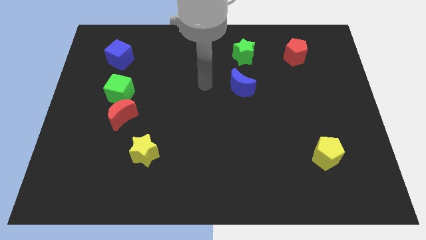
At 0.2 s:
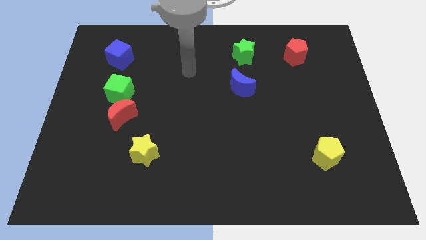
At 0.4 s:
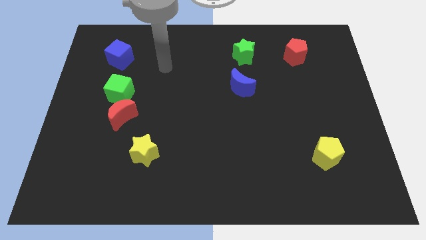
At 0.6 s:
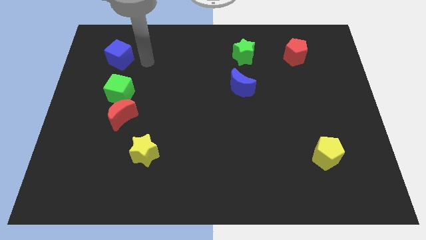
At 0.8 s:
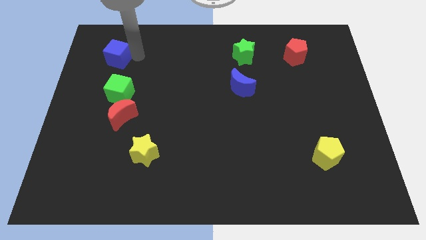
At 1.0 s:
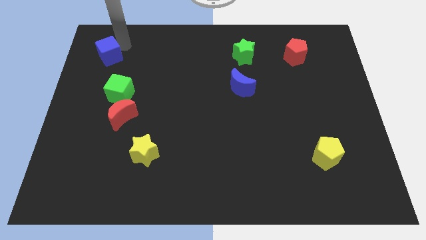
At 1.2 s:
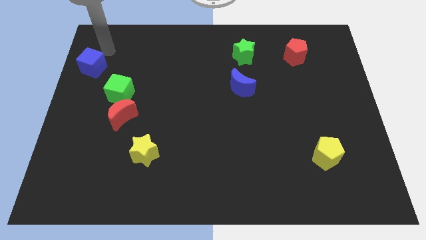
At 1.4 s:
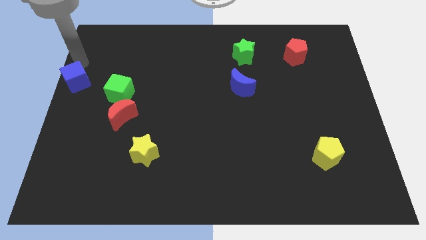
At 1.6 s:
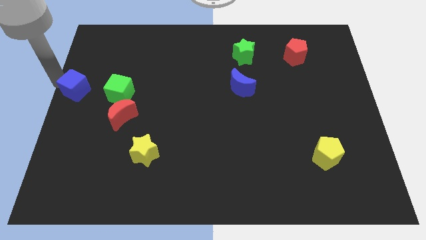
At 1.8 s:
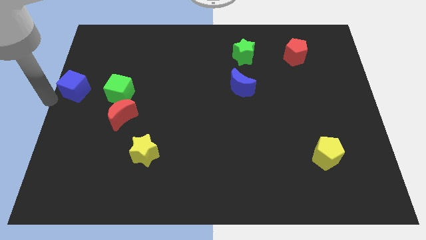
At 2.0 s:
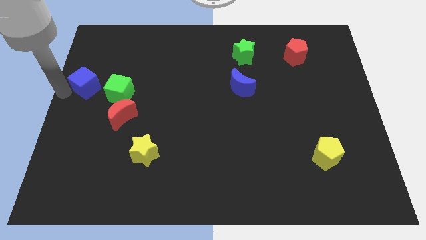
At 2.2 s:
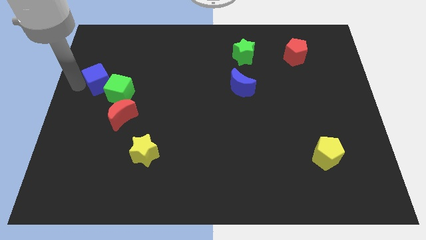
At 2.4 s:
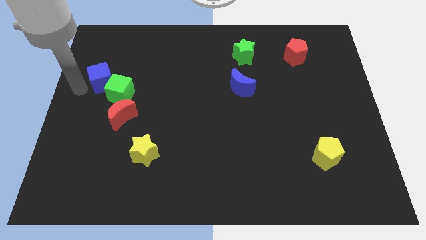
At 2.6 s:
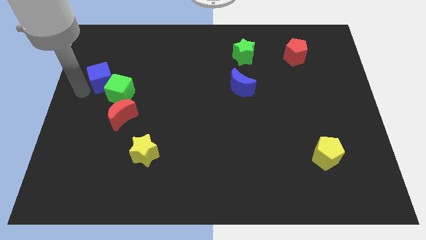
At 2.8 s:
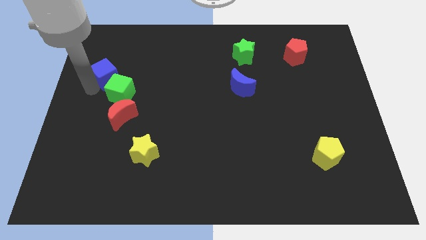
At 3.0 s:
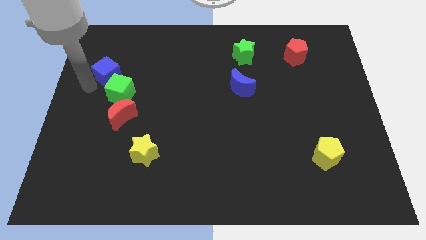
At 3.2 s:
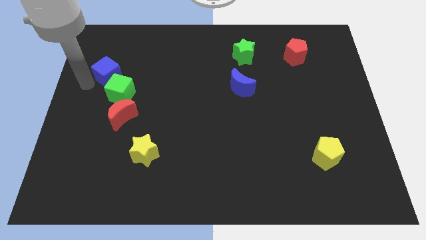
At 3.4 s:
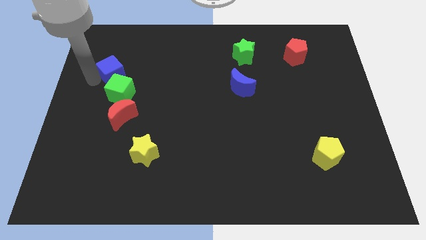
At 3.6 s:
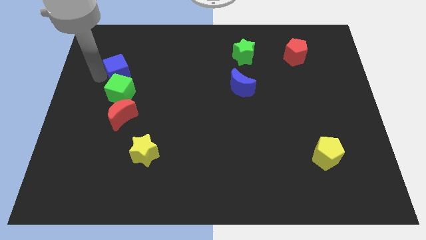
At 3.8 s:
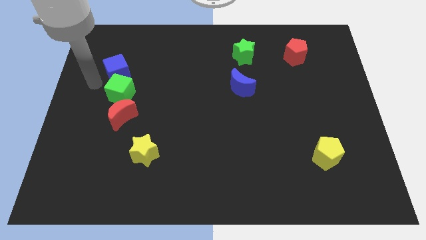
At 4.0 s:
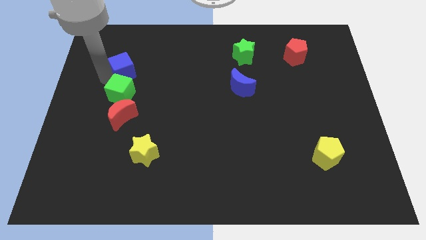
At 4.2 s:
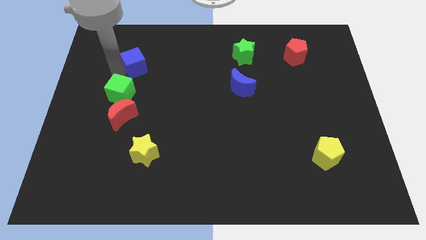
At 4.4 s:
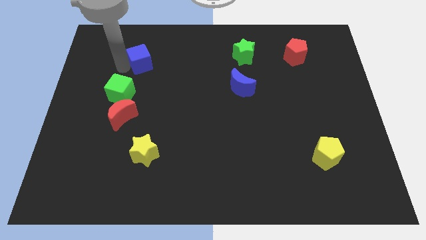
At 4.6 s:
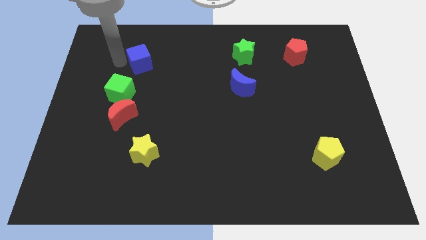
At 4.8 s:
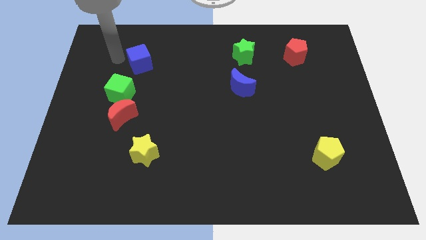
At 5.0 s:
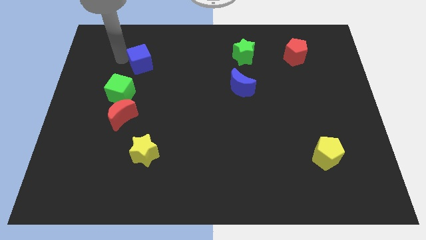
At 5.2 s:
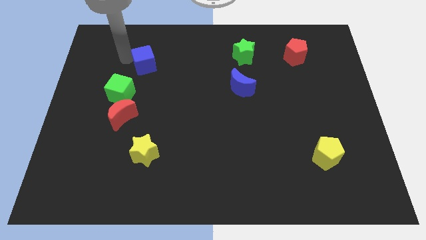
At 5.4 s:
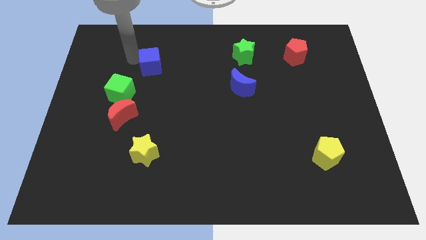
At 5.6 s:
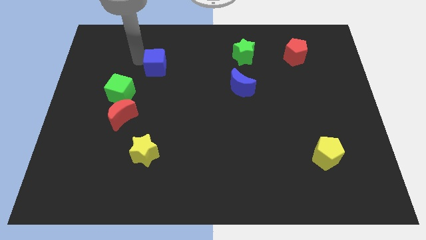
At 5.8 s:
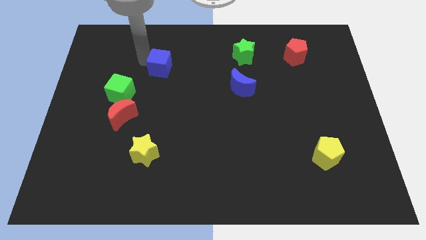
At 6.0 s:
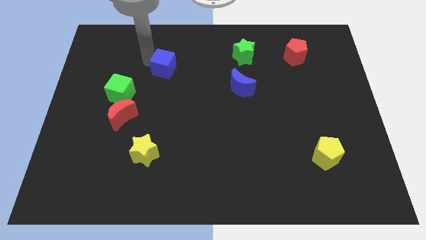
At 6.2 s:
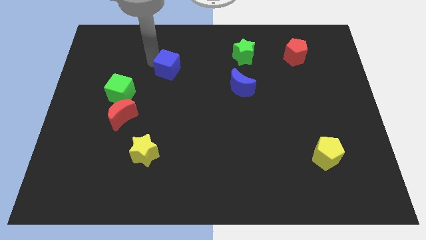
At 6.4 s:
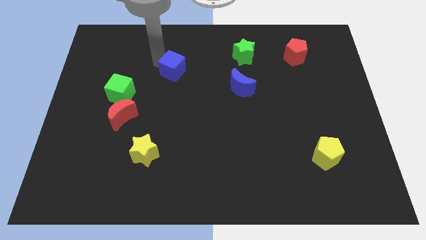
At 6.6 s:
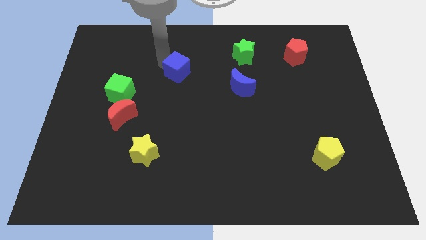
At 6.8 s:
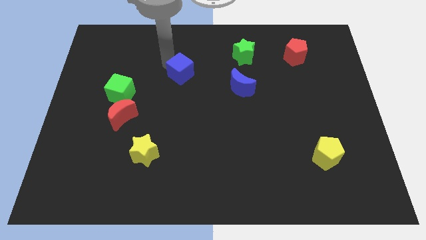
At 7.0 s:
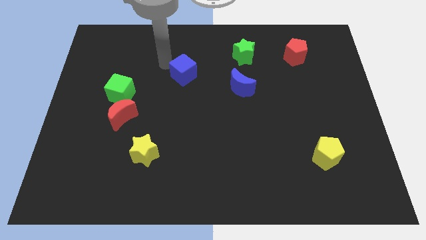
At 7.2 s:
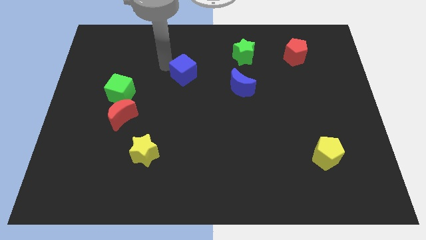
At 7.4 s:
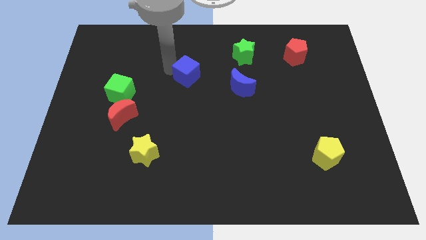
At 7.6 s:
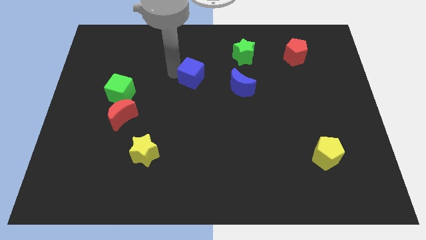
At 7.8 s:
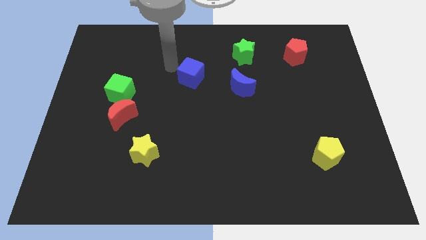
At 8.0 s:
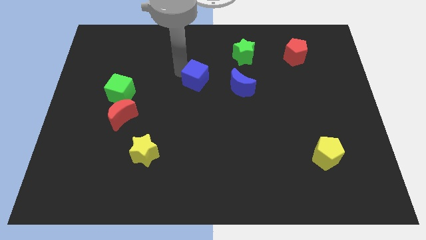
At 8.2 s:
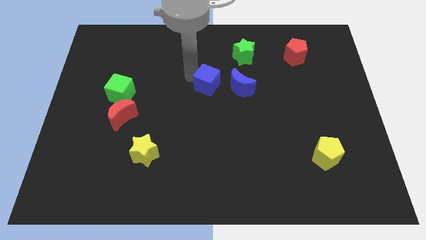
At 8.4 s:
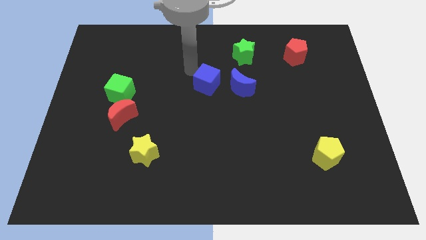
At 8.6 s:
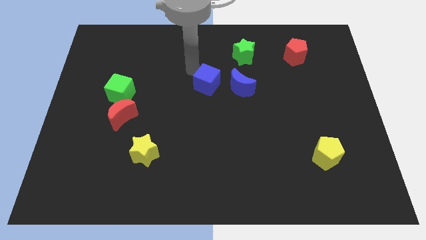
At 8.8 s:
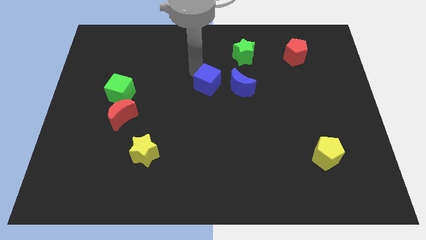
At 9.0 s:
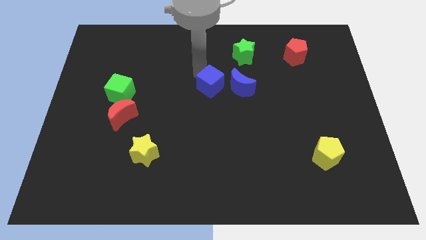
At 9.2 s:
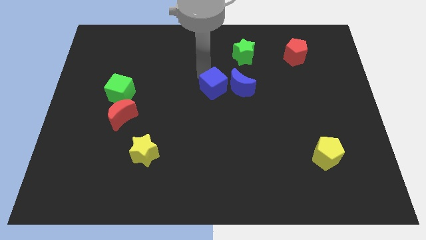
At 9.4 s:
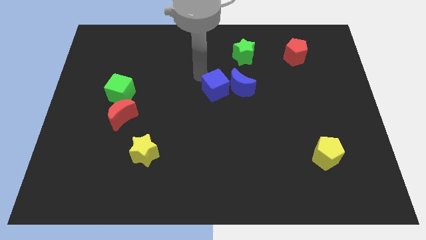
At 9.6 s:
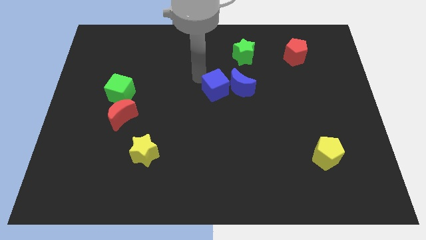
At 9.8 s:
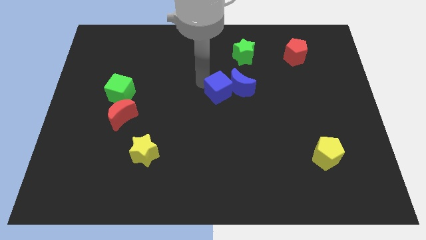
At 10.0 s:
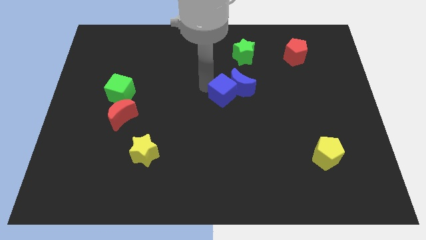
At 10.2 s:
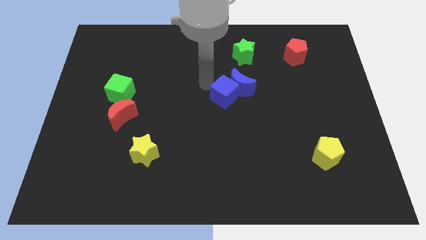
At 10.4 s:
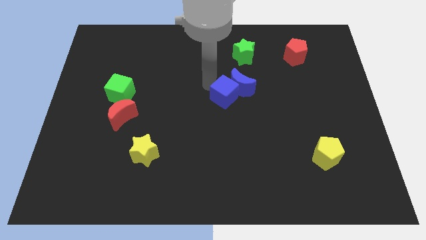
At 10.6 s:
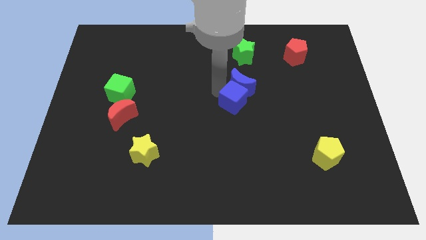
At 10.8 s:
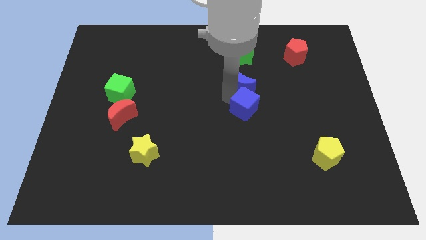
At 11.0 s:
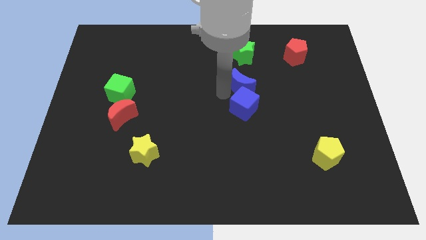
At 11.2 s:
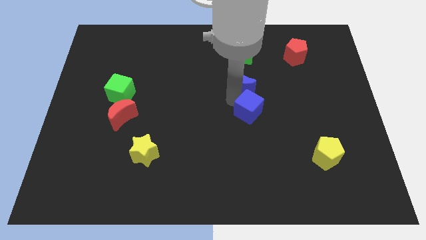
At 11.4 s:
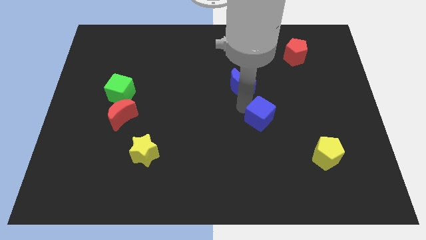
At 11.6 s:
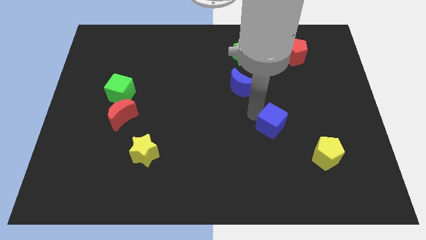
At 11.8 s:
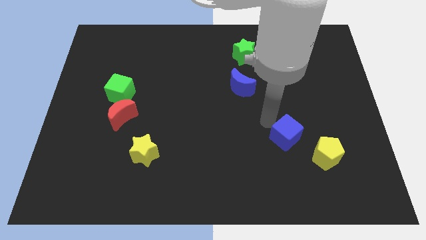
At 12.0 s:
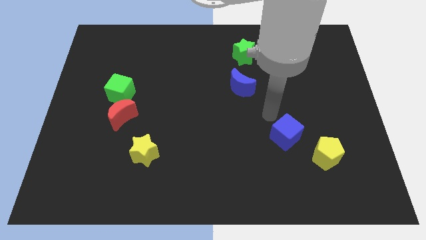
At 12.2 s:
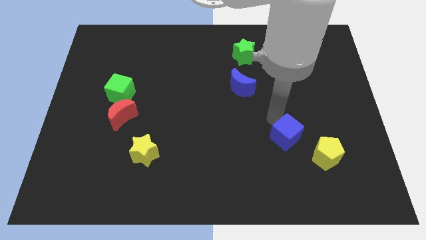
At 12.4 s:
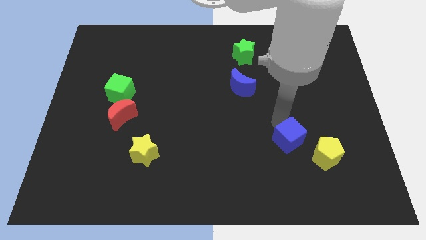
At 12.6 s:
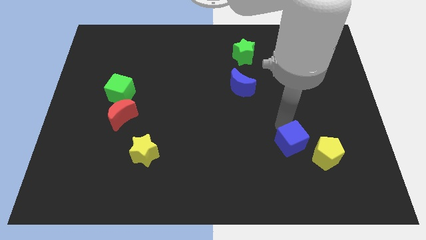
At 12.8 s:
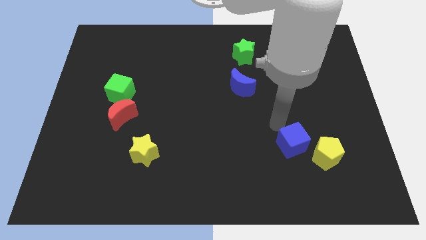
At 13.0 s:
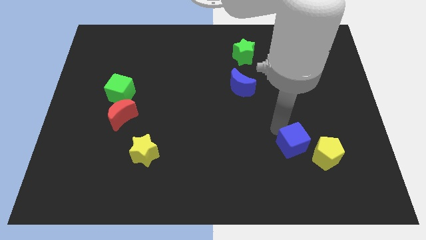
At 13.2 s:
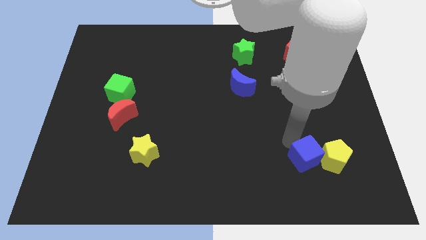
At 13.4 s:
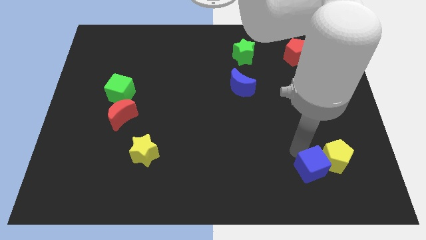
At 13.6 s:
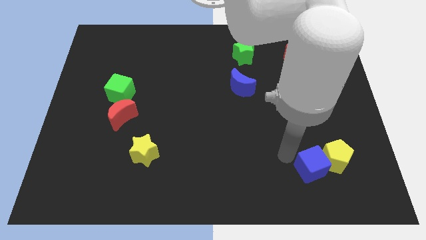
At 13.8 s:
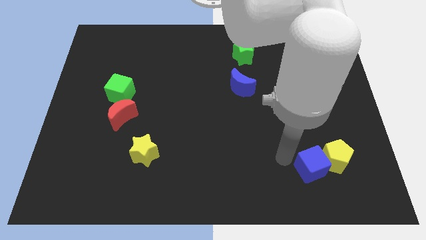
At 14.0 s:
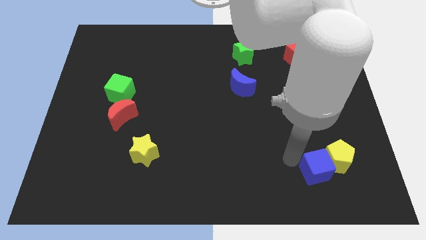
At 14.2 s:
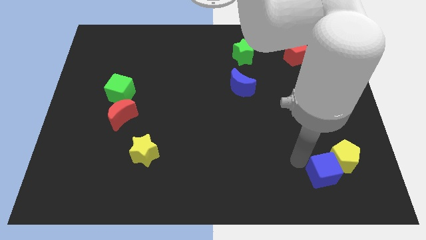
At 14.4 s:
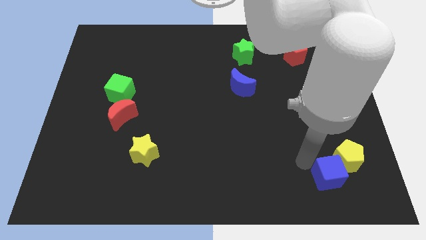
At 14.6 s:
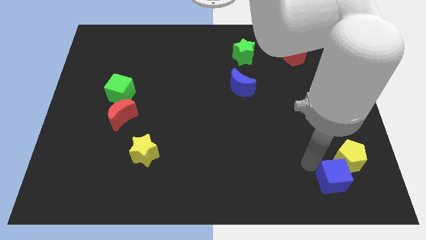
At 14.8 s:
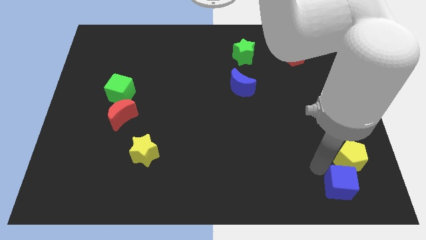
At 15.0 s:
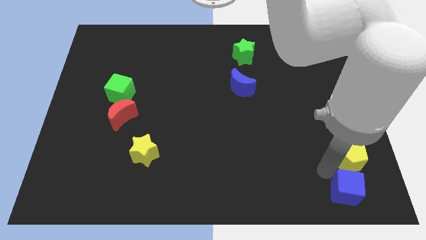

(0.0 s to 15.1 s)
push the blue cube to the bottom right of the board
